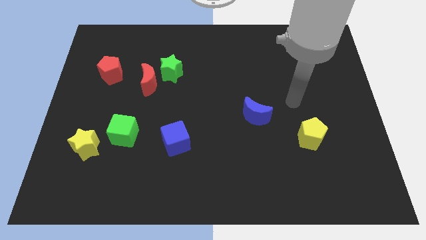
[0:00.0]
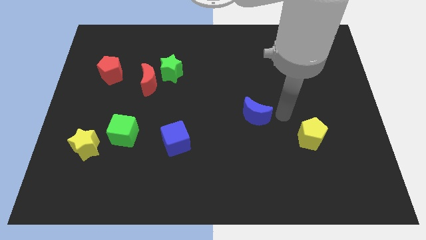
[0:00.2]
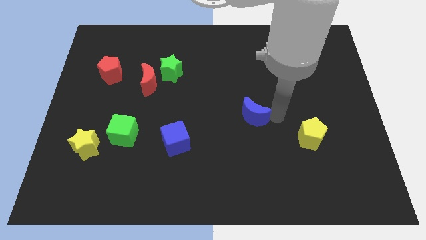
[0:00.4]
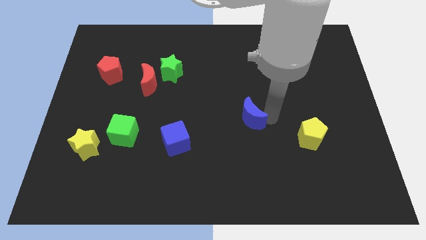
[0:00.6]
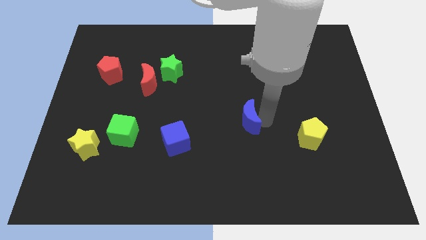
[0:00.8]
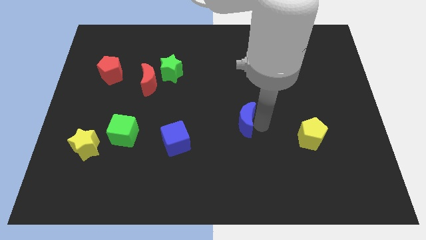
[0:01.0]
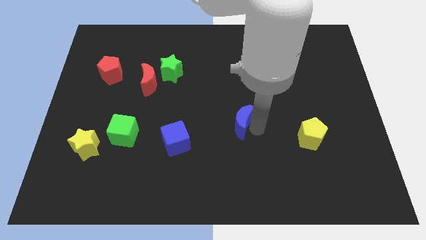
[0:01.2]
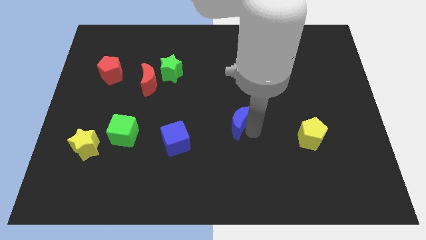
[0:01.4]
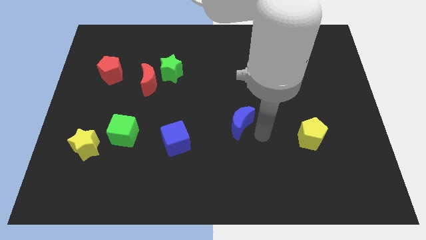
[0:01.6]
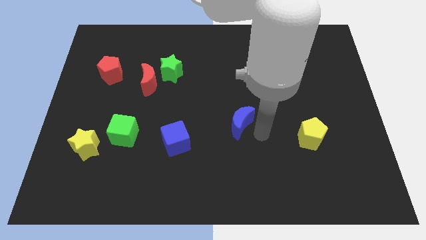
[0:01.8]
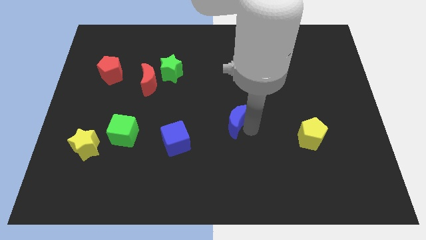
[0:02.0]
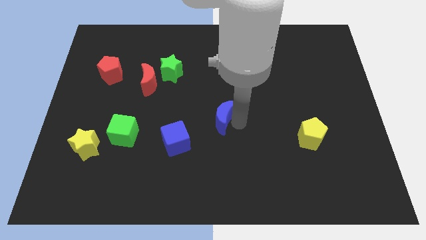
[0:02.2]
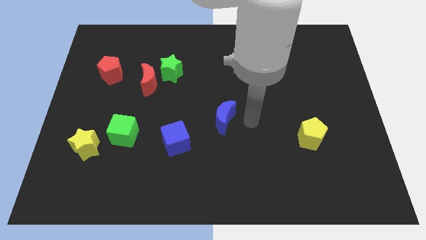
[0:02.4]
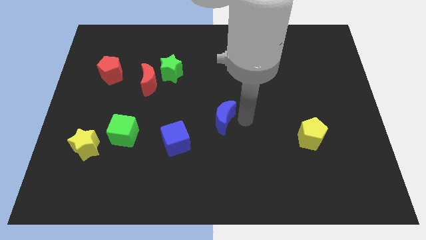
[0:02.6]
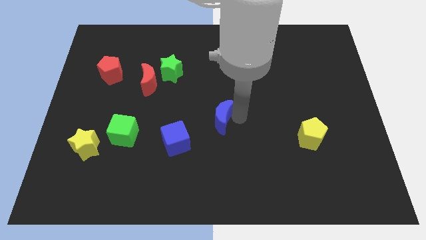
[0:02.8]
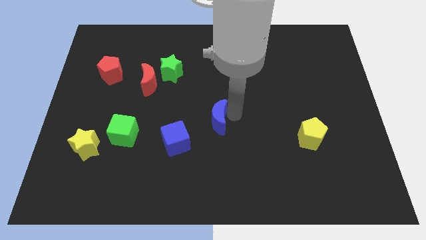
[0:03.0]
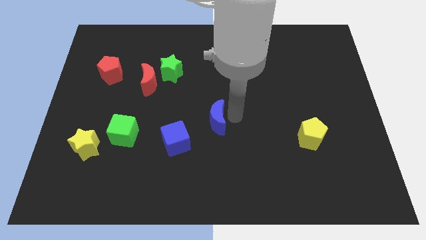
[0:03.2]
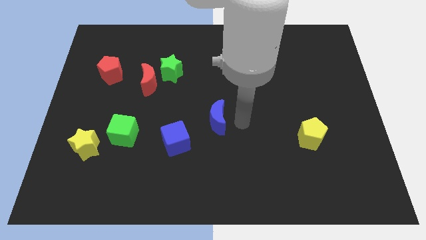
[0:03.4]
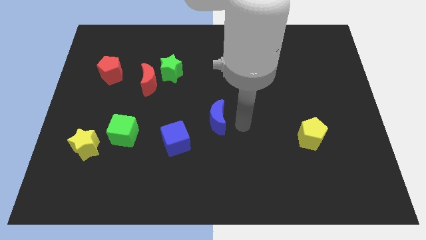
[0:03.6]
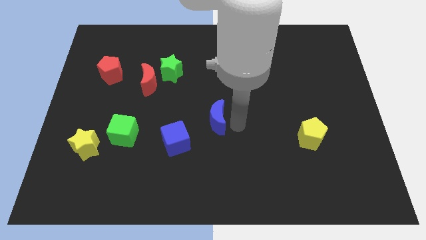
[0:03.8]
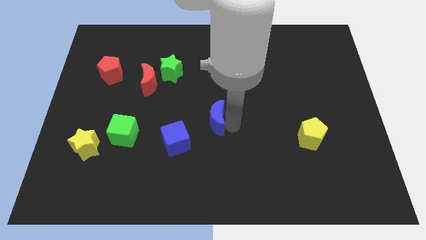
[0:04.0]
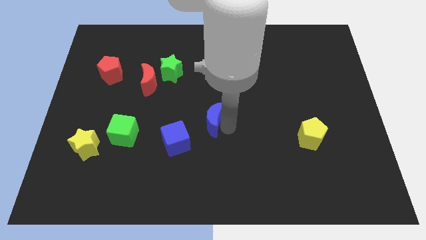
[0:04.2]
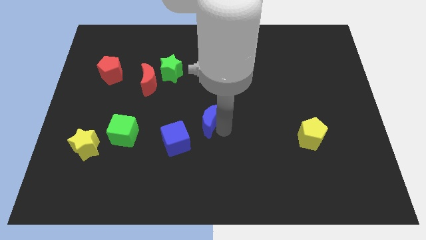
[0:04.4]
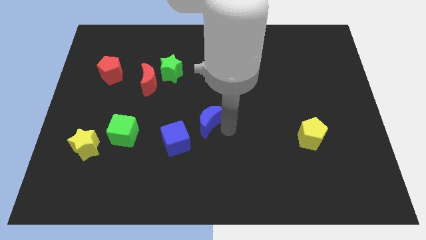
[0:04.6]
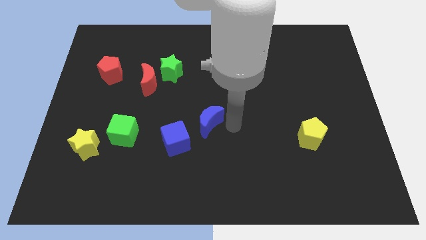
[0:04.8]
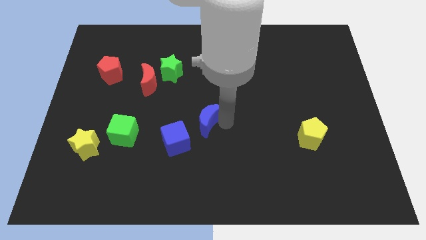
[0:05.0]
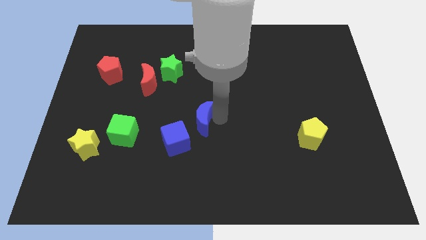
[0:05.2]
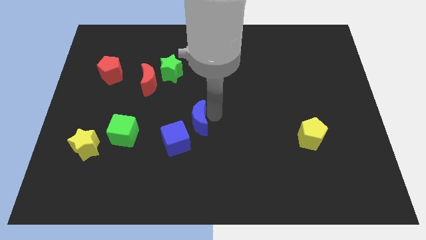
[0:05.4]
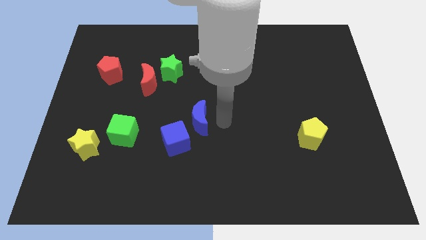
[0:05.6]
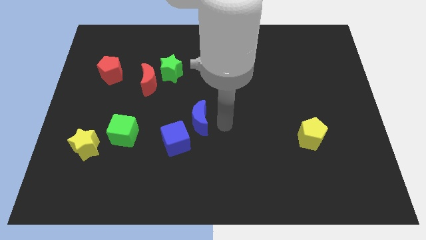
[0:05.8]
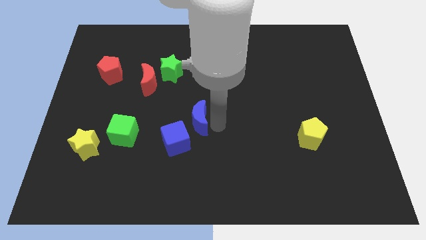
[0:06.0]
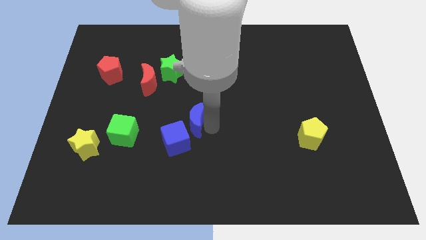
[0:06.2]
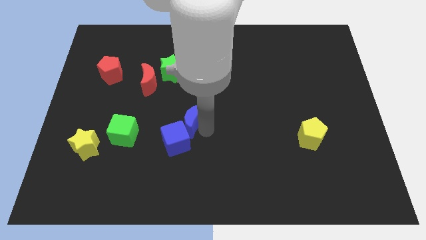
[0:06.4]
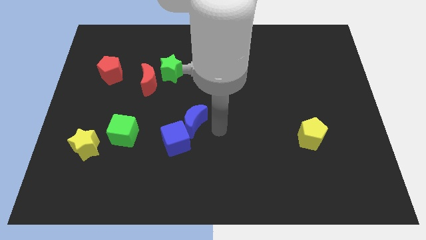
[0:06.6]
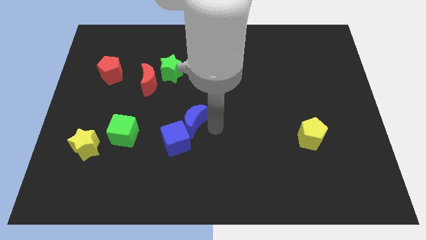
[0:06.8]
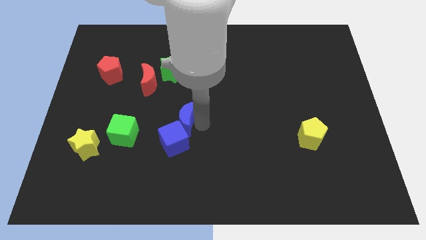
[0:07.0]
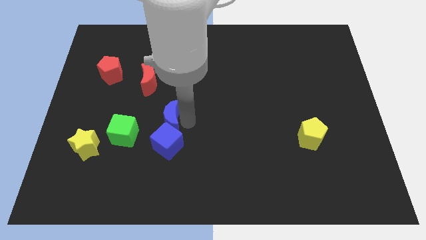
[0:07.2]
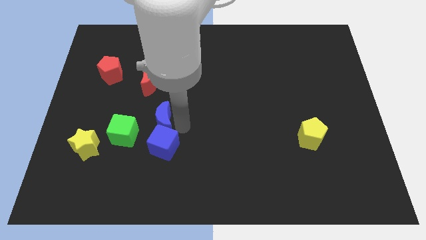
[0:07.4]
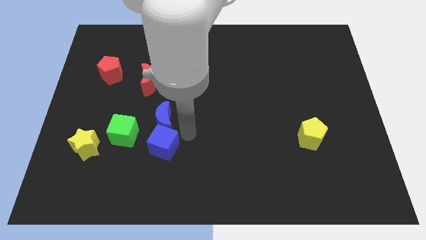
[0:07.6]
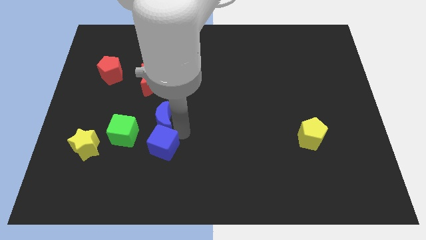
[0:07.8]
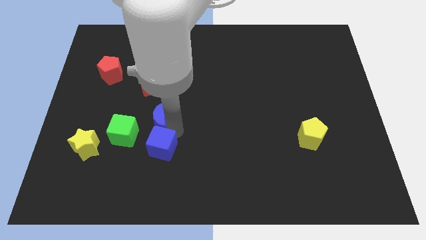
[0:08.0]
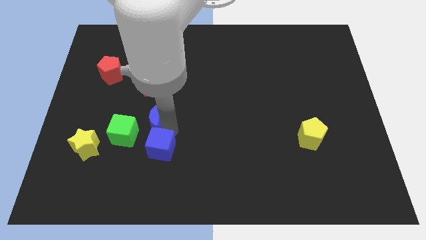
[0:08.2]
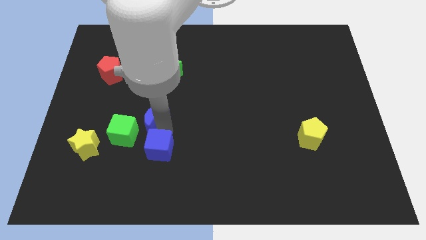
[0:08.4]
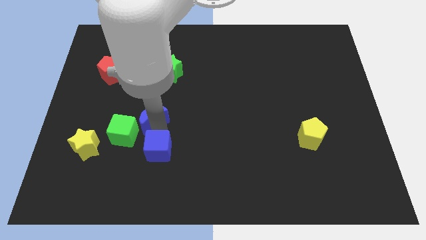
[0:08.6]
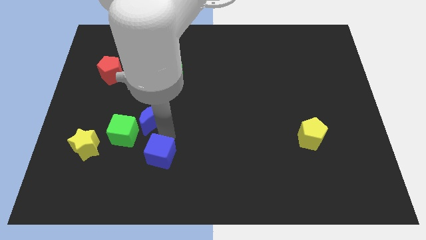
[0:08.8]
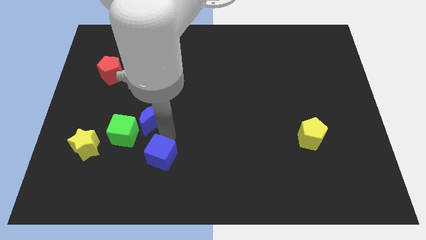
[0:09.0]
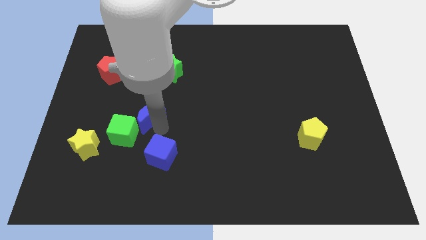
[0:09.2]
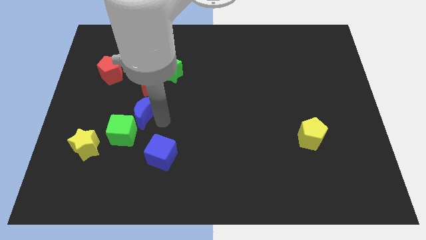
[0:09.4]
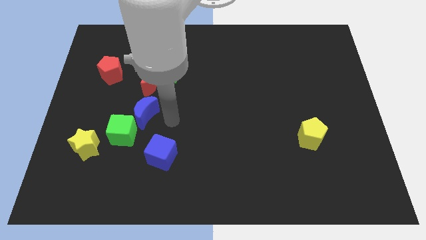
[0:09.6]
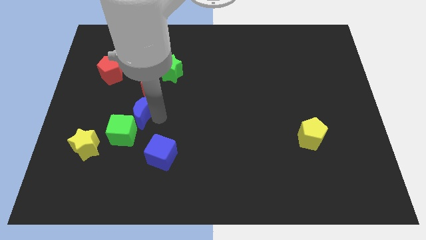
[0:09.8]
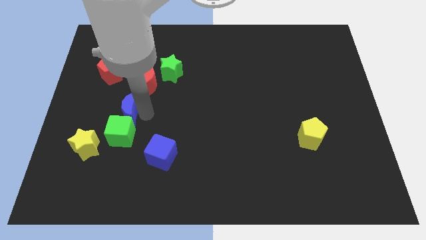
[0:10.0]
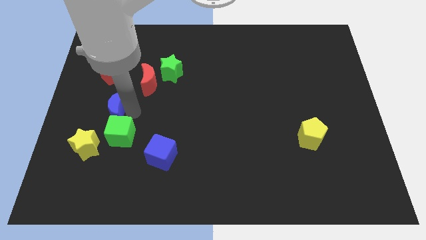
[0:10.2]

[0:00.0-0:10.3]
slide the blue moon to the bottom of the red pentagon

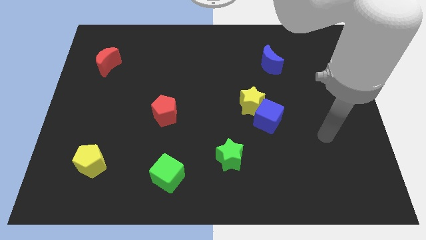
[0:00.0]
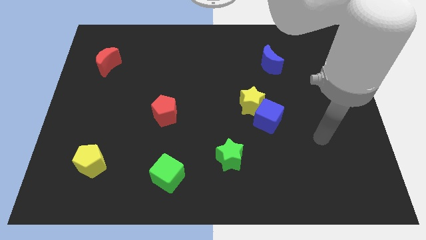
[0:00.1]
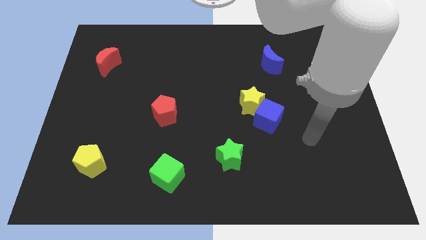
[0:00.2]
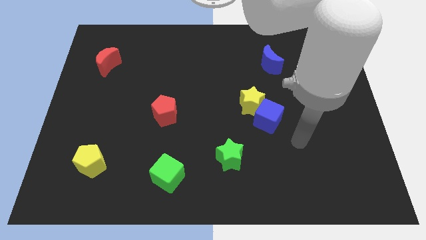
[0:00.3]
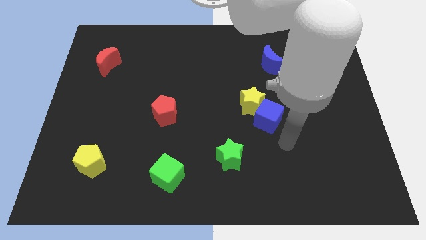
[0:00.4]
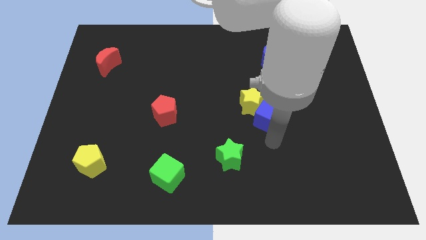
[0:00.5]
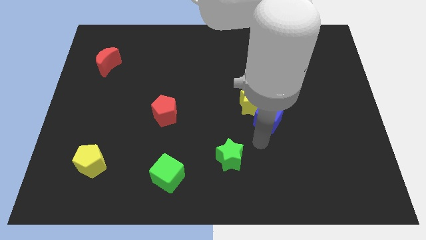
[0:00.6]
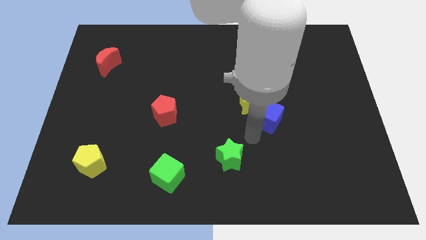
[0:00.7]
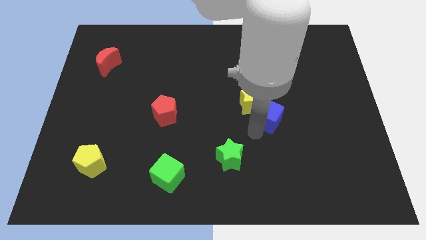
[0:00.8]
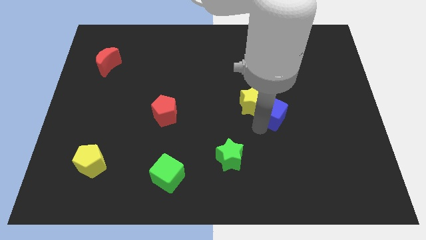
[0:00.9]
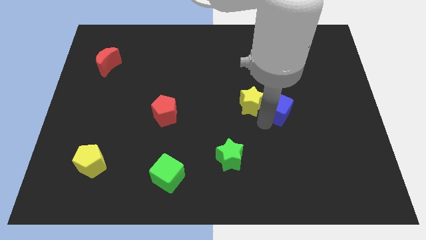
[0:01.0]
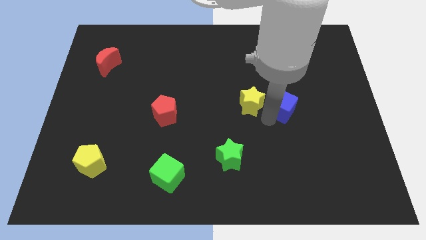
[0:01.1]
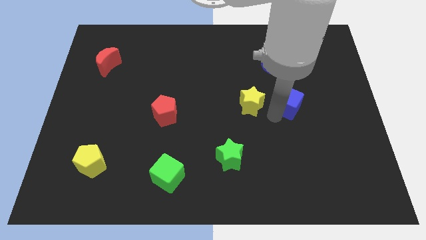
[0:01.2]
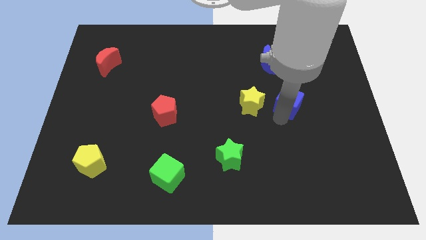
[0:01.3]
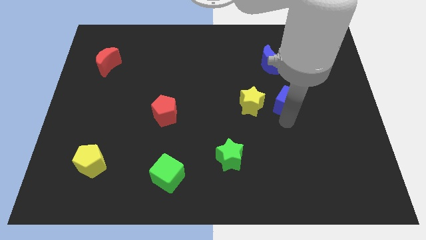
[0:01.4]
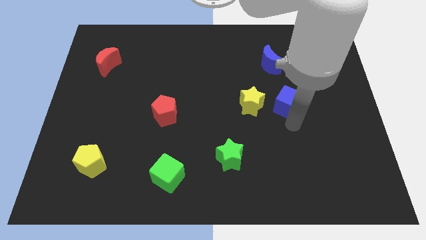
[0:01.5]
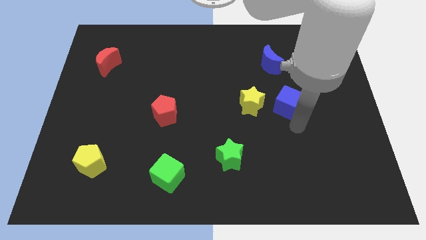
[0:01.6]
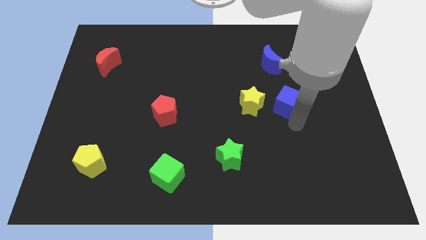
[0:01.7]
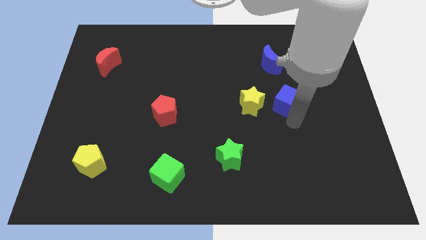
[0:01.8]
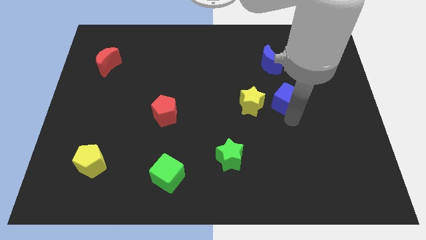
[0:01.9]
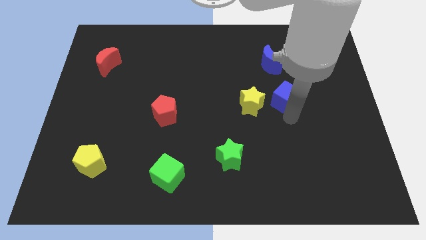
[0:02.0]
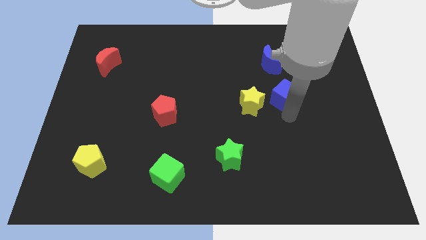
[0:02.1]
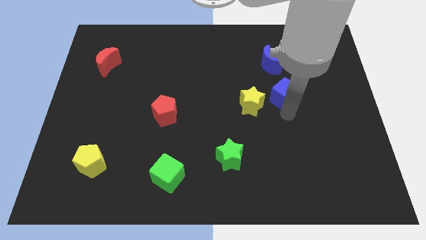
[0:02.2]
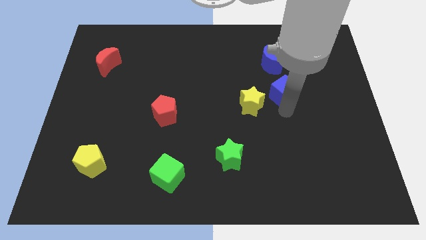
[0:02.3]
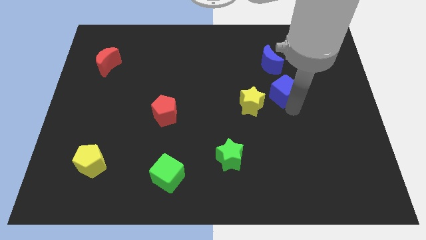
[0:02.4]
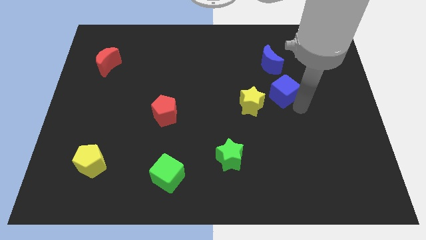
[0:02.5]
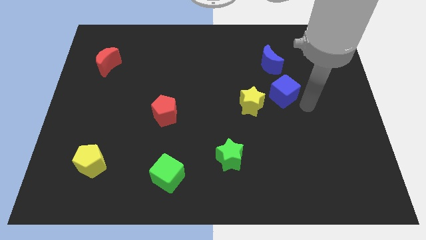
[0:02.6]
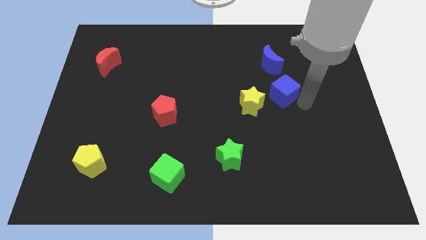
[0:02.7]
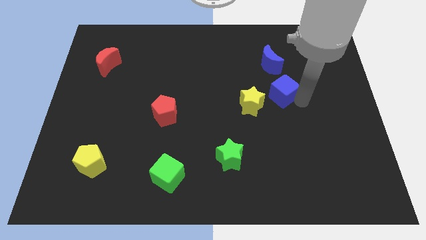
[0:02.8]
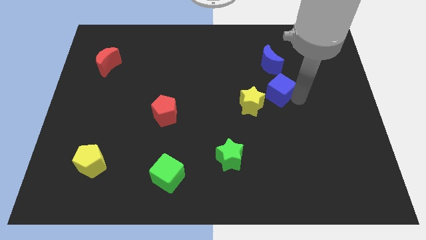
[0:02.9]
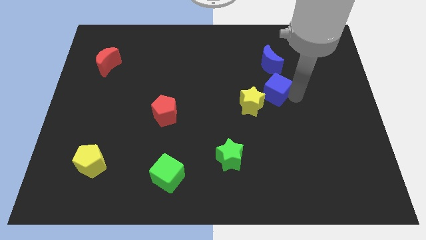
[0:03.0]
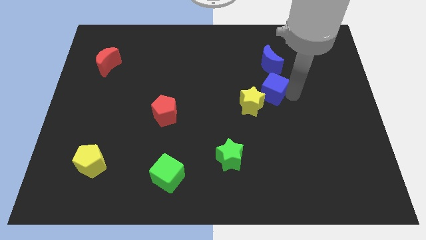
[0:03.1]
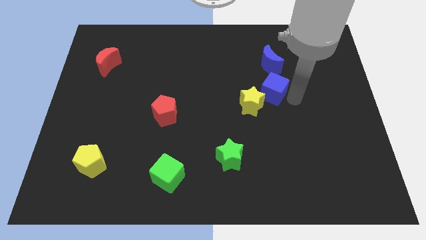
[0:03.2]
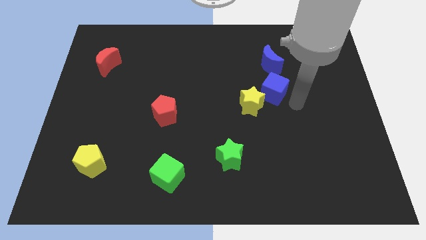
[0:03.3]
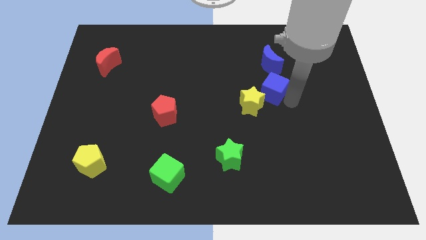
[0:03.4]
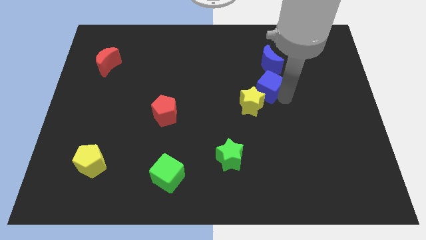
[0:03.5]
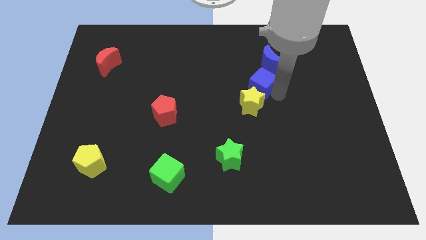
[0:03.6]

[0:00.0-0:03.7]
push the blue cube diagonally down and to the left of the blue moon
